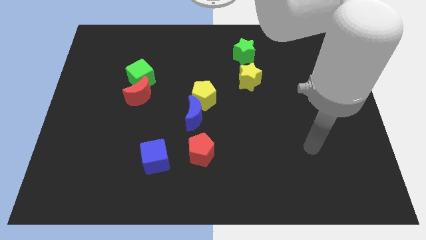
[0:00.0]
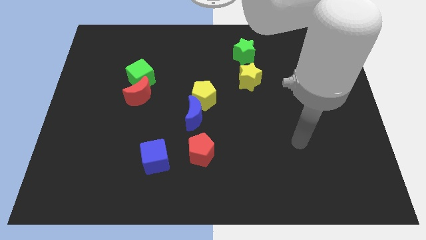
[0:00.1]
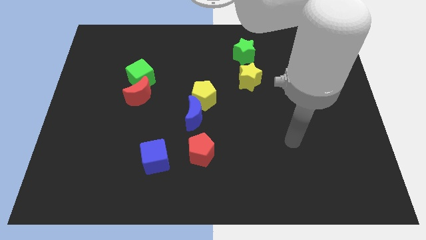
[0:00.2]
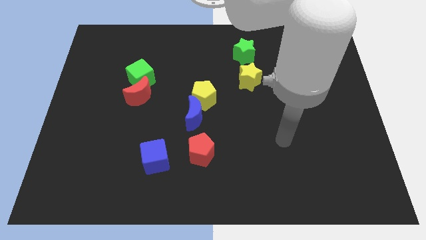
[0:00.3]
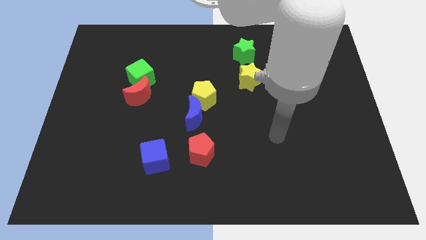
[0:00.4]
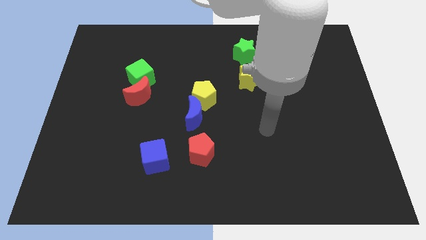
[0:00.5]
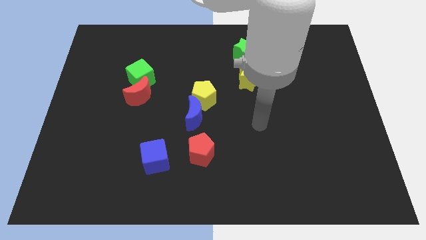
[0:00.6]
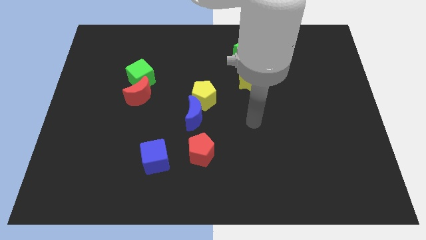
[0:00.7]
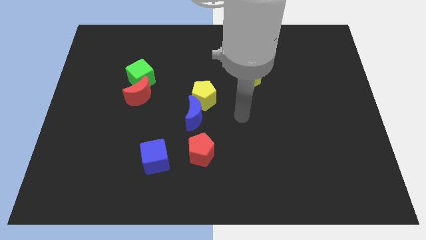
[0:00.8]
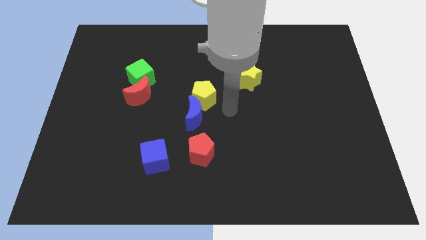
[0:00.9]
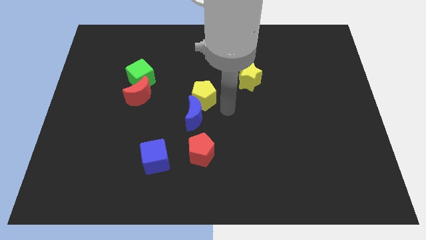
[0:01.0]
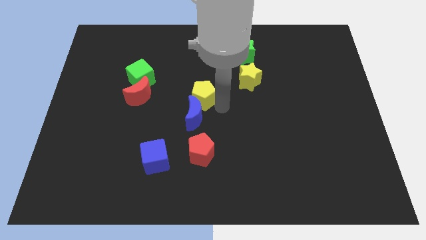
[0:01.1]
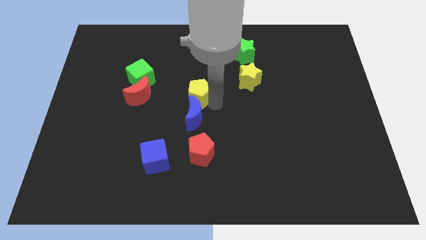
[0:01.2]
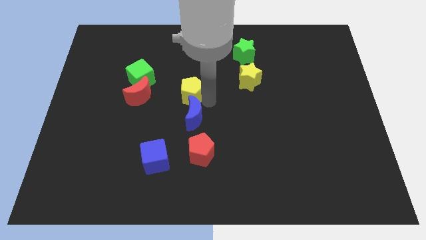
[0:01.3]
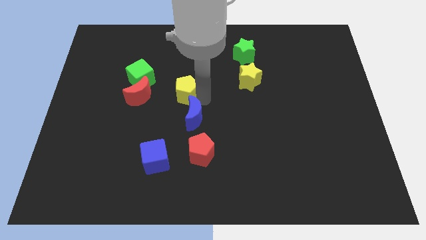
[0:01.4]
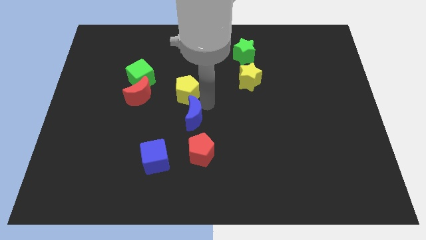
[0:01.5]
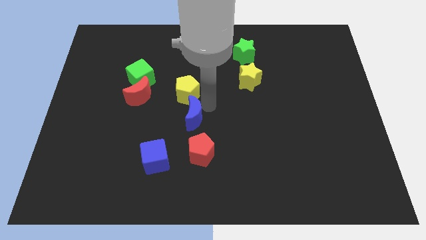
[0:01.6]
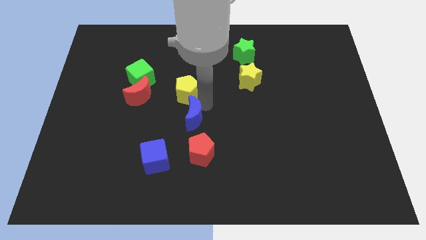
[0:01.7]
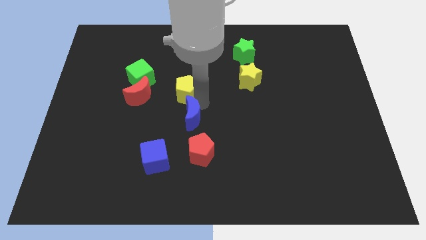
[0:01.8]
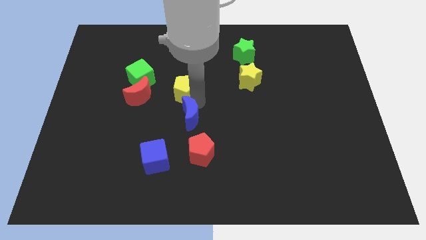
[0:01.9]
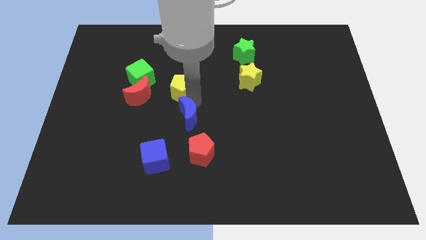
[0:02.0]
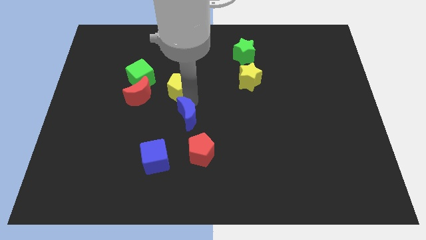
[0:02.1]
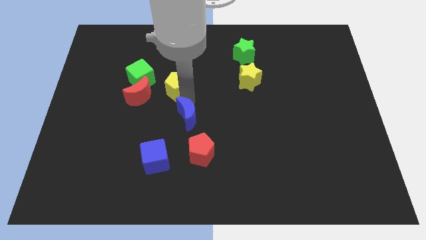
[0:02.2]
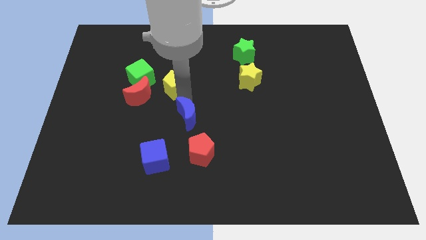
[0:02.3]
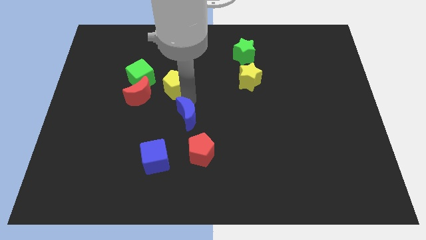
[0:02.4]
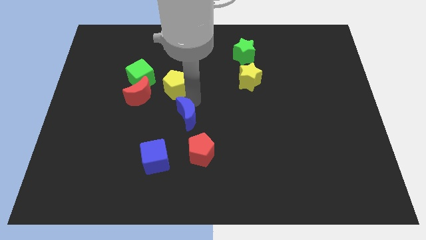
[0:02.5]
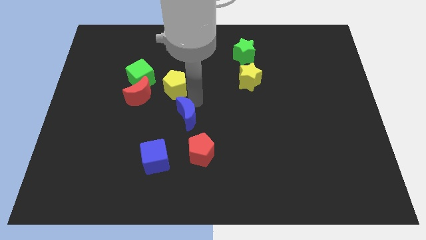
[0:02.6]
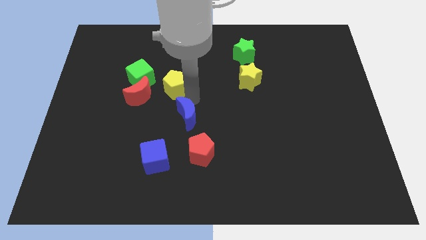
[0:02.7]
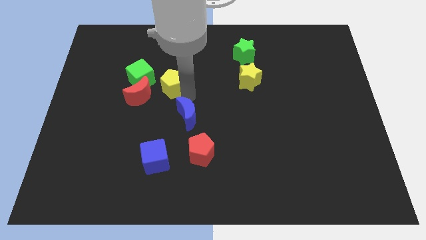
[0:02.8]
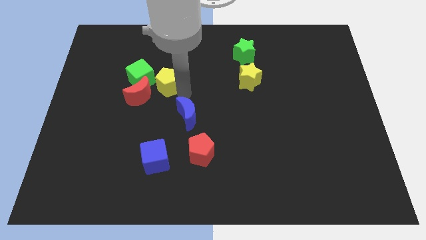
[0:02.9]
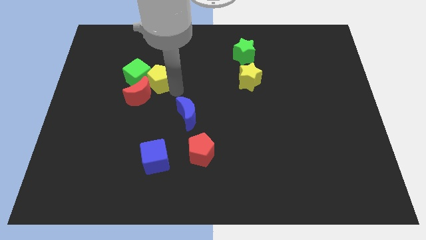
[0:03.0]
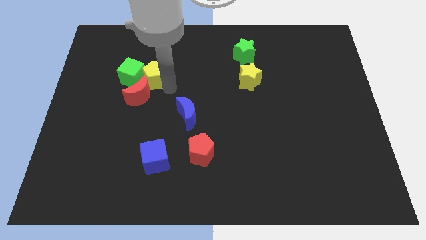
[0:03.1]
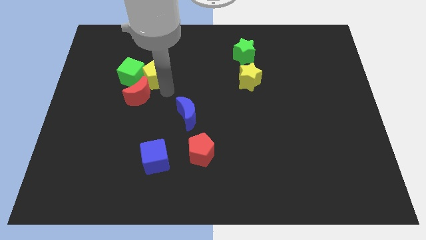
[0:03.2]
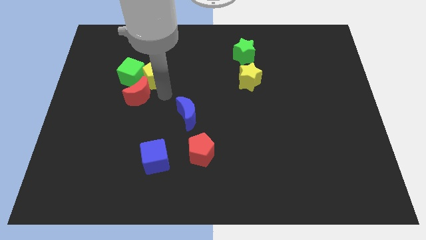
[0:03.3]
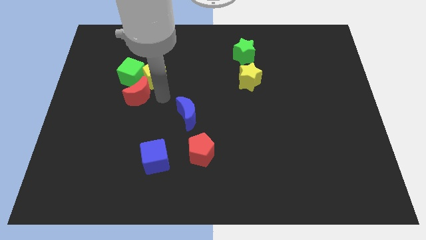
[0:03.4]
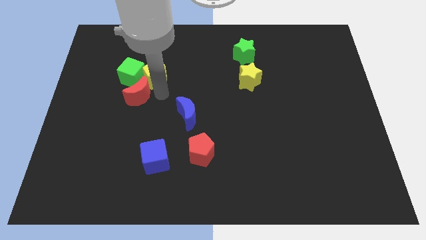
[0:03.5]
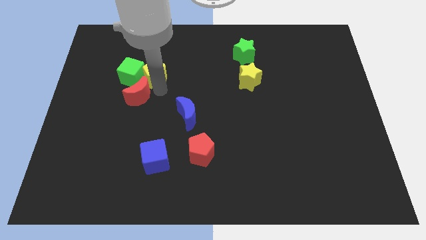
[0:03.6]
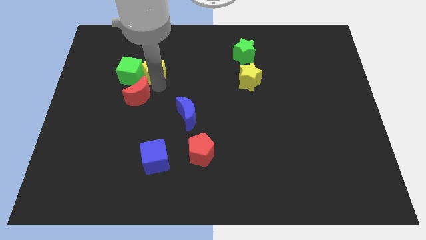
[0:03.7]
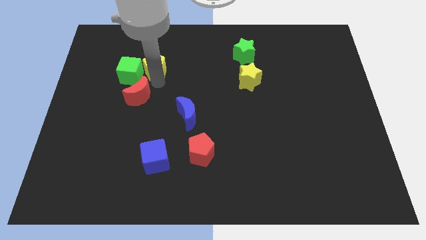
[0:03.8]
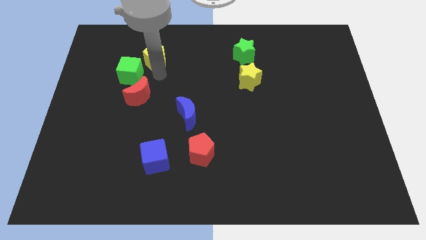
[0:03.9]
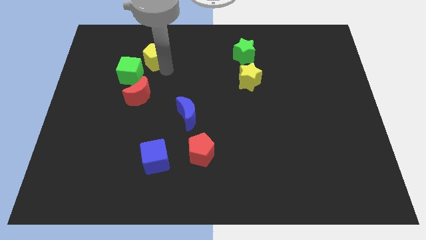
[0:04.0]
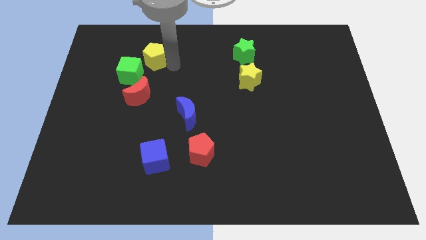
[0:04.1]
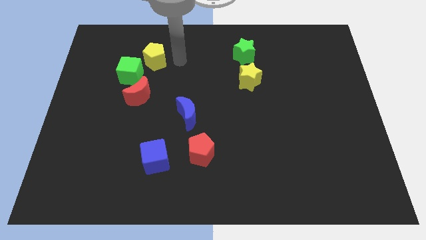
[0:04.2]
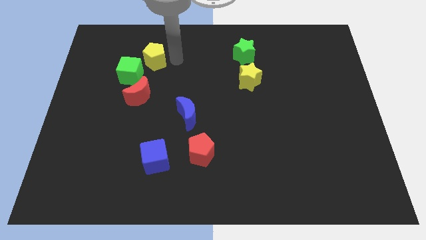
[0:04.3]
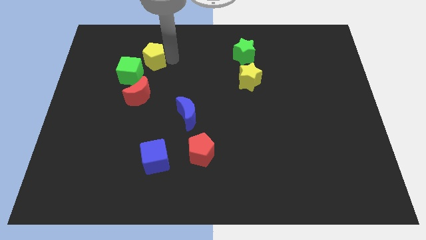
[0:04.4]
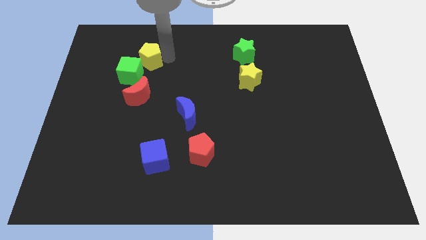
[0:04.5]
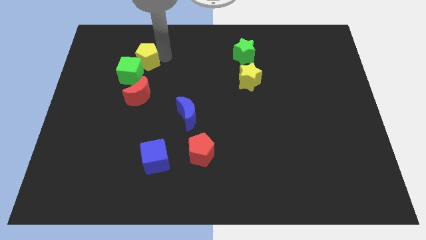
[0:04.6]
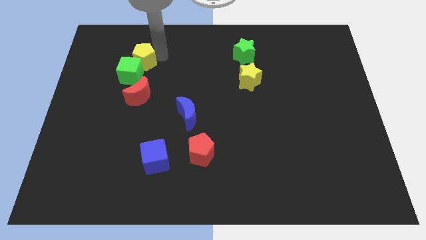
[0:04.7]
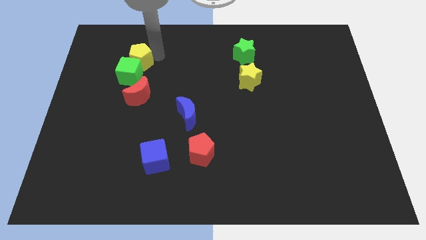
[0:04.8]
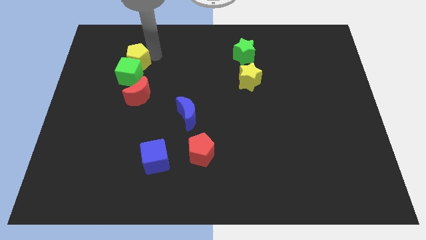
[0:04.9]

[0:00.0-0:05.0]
slide the yellow pentagon to the top left of the green cube

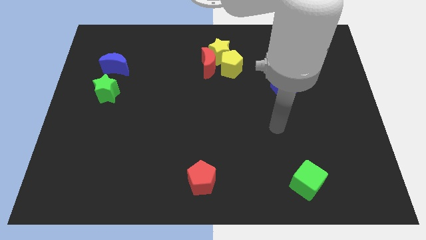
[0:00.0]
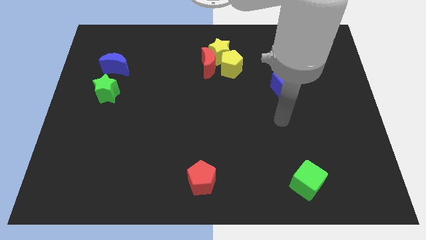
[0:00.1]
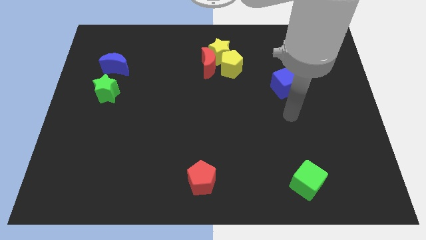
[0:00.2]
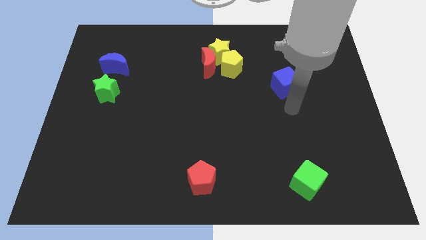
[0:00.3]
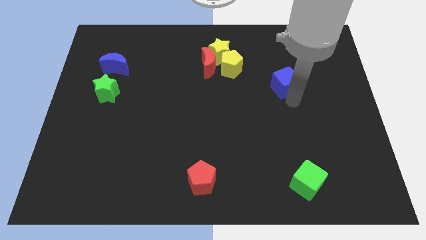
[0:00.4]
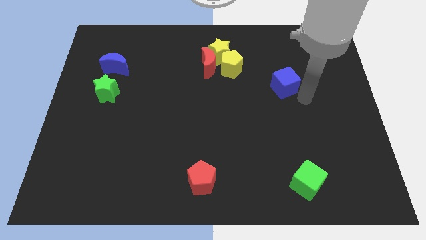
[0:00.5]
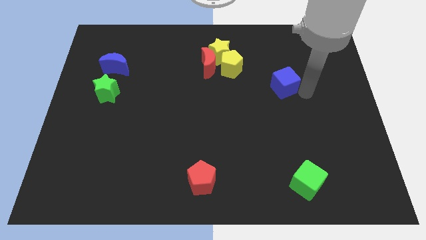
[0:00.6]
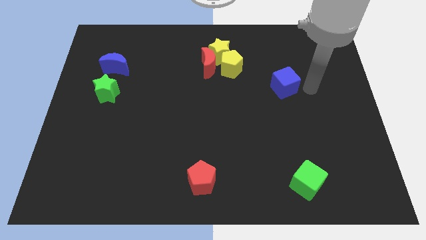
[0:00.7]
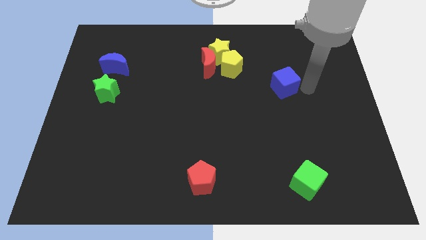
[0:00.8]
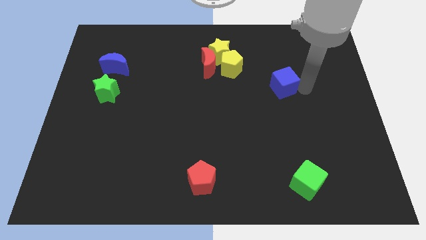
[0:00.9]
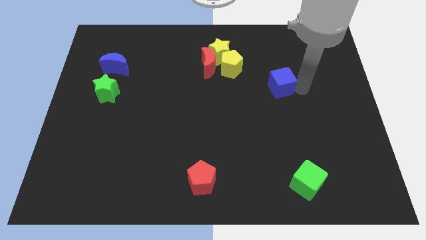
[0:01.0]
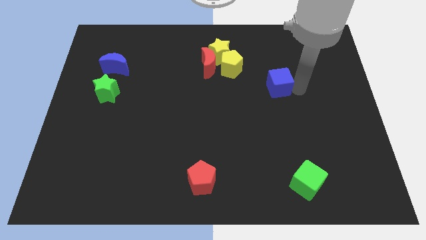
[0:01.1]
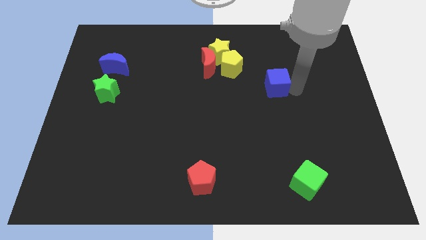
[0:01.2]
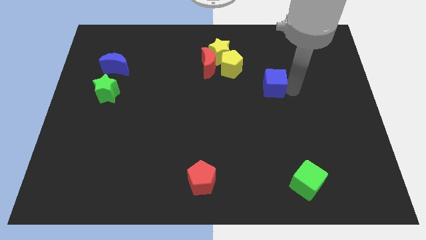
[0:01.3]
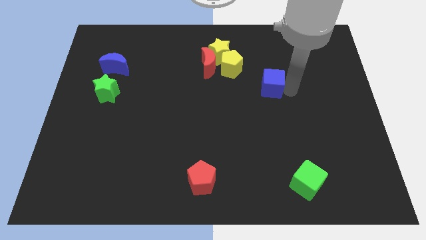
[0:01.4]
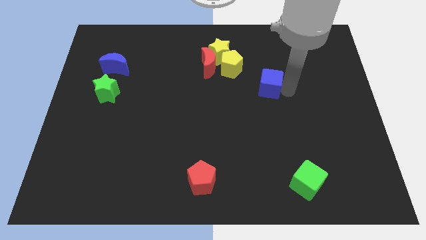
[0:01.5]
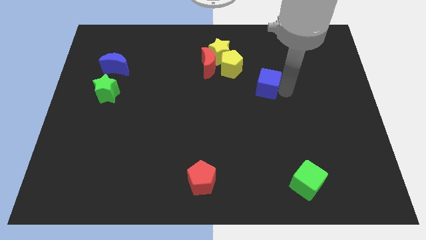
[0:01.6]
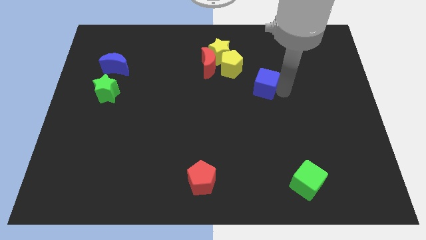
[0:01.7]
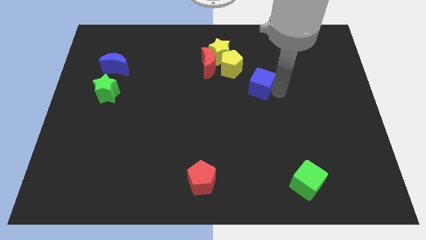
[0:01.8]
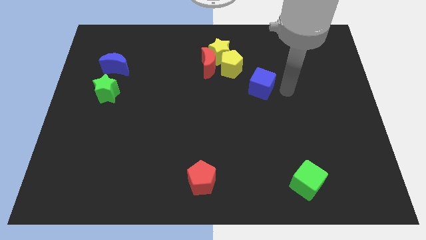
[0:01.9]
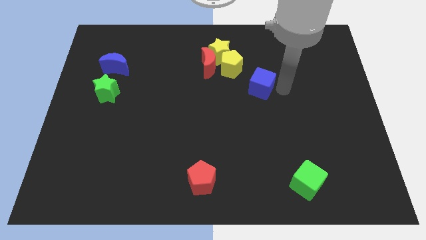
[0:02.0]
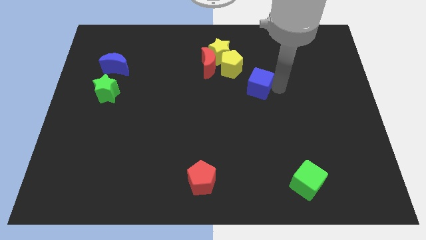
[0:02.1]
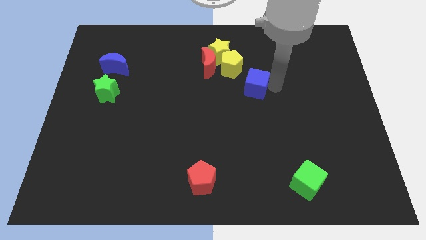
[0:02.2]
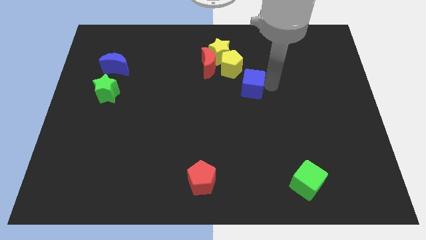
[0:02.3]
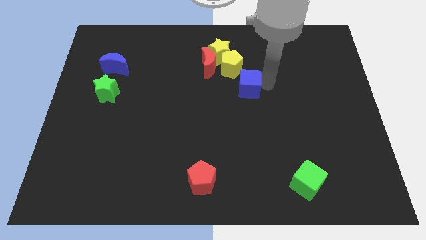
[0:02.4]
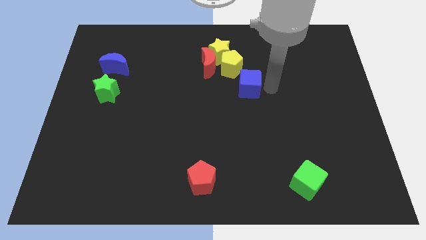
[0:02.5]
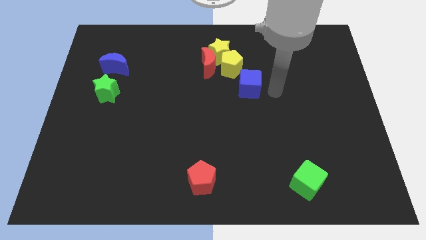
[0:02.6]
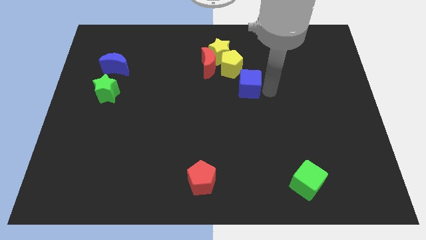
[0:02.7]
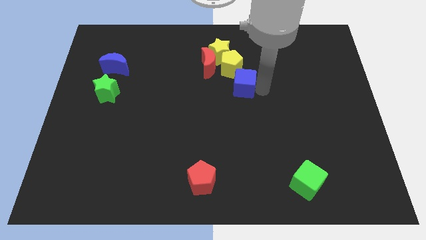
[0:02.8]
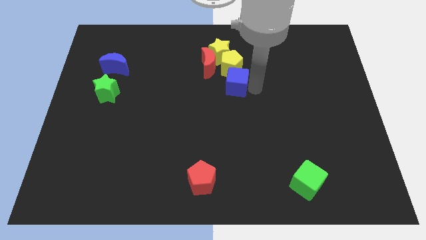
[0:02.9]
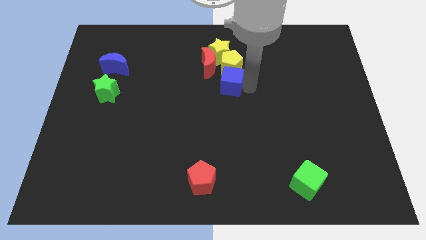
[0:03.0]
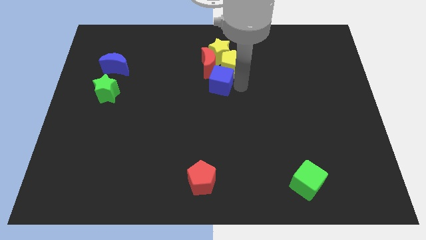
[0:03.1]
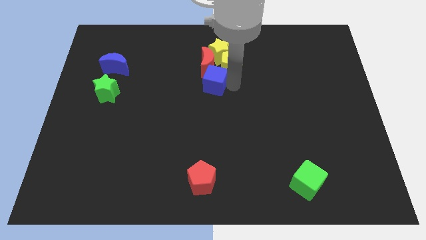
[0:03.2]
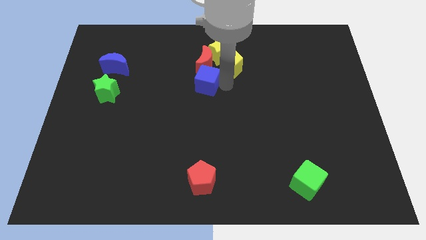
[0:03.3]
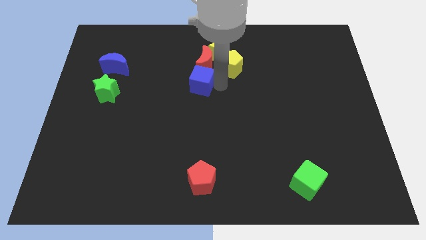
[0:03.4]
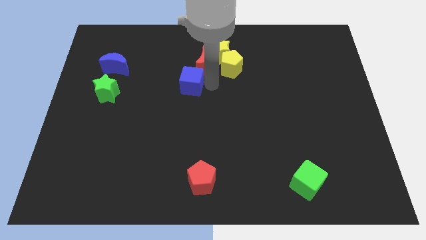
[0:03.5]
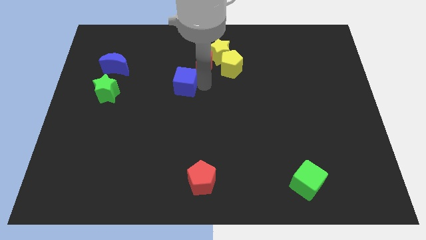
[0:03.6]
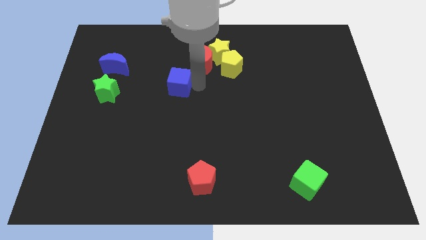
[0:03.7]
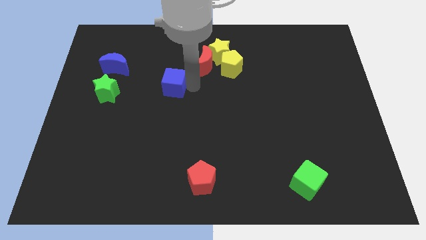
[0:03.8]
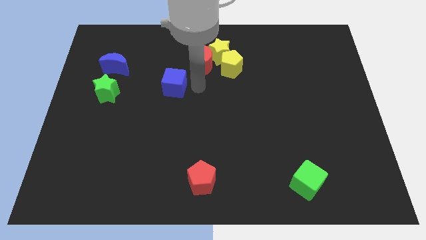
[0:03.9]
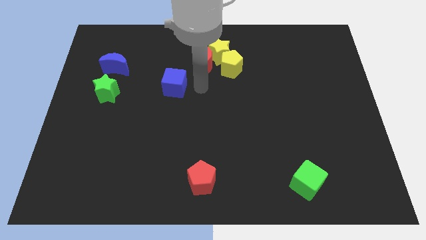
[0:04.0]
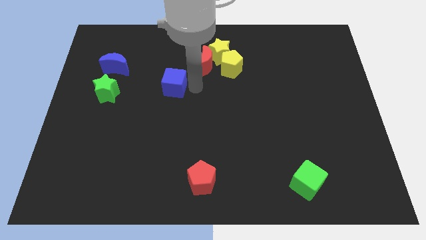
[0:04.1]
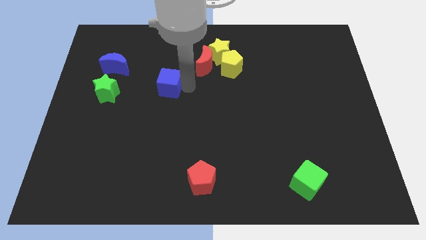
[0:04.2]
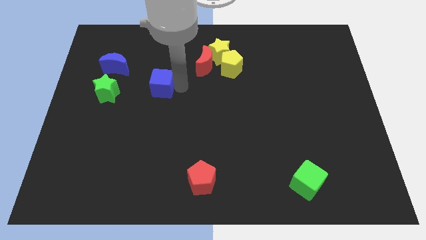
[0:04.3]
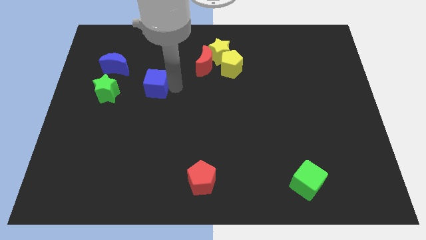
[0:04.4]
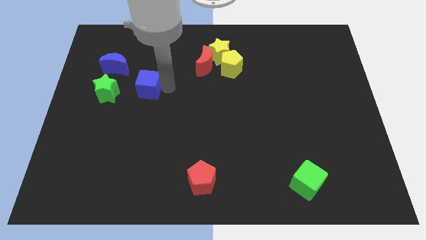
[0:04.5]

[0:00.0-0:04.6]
push the blue cube diagonally down and to the right of the blue moon
